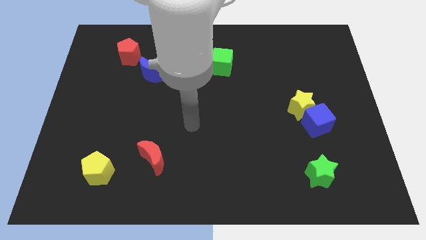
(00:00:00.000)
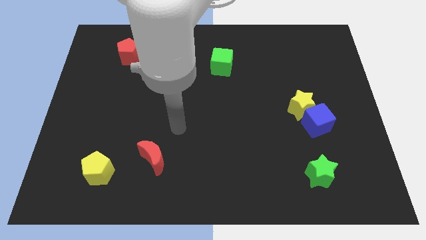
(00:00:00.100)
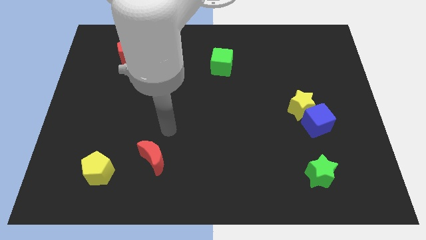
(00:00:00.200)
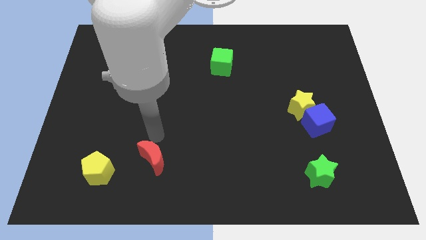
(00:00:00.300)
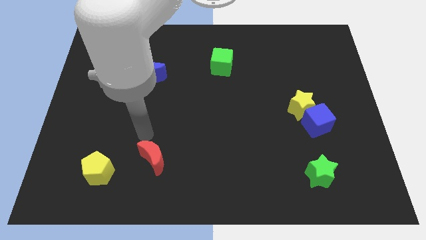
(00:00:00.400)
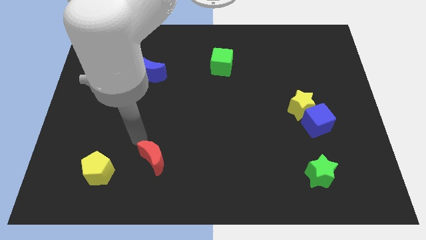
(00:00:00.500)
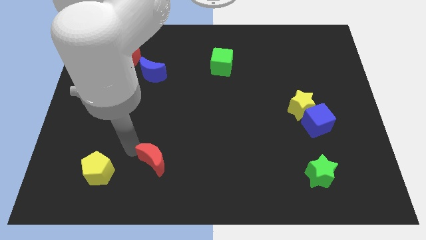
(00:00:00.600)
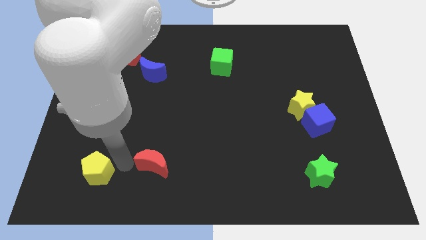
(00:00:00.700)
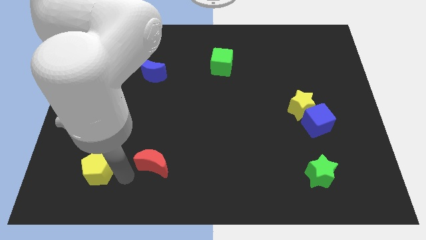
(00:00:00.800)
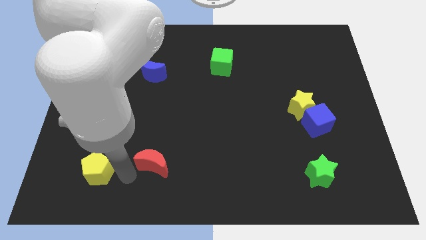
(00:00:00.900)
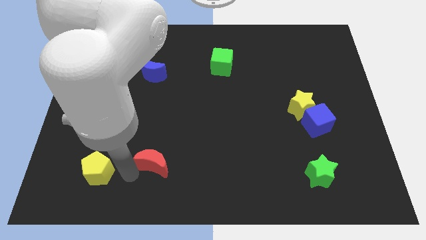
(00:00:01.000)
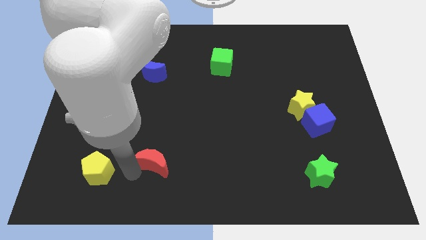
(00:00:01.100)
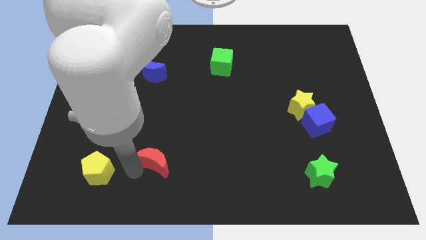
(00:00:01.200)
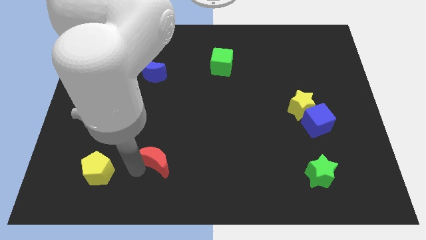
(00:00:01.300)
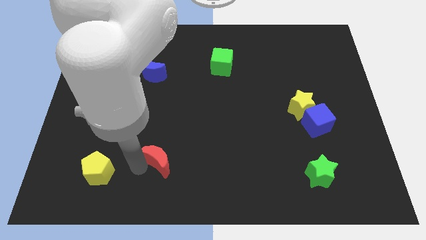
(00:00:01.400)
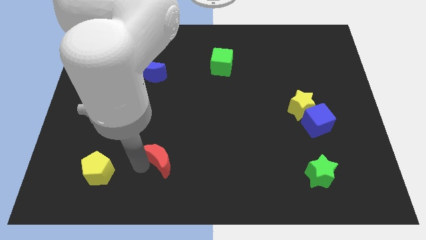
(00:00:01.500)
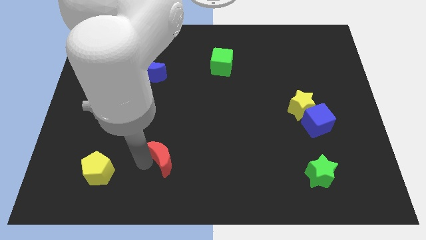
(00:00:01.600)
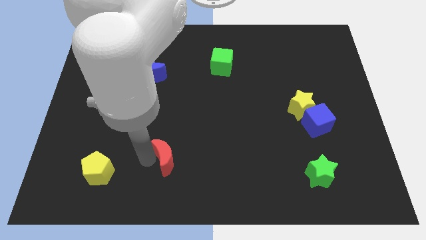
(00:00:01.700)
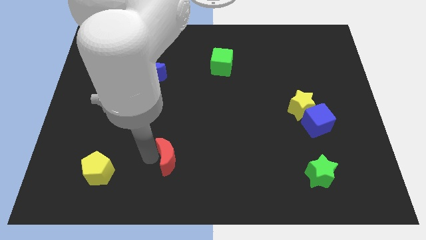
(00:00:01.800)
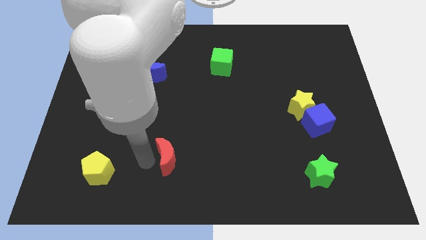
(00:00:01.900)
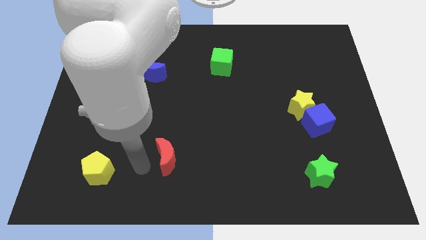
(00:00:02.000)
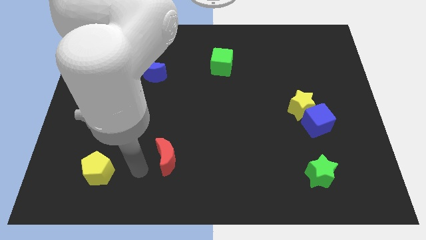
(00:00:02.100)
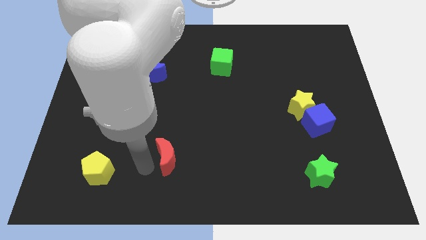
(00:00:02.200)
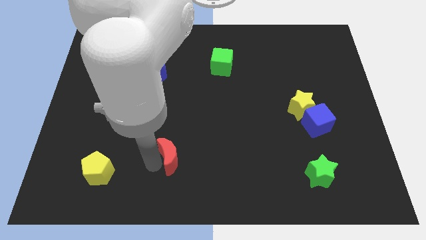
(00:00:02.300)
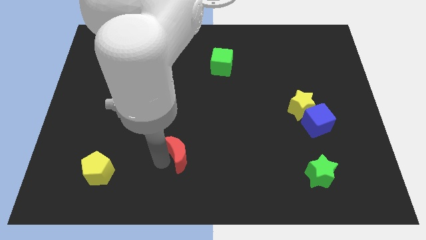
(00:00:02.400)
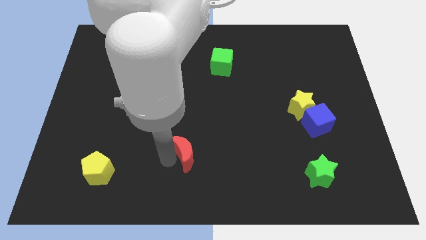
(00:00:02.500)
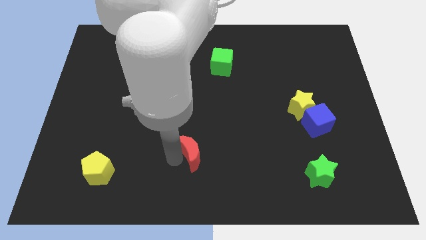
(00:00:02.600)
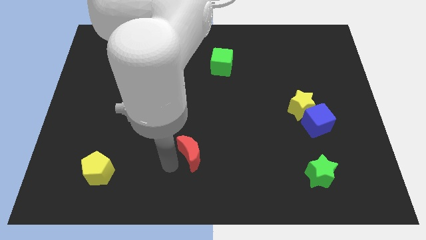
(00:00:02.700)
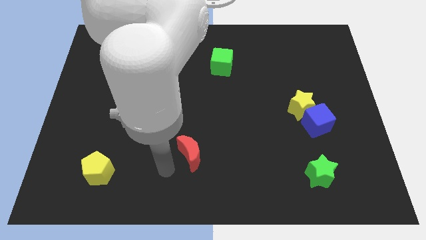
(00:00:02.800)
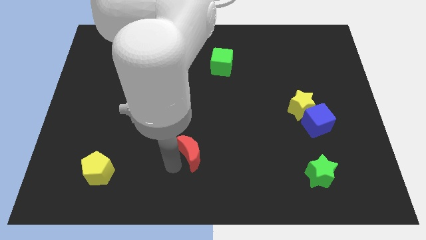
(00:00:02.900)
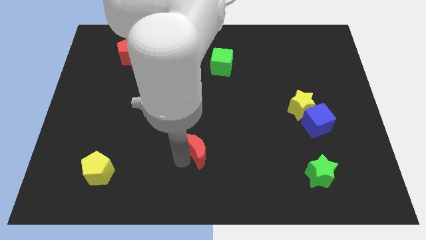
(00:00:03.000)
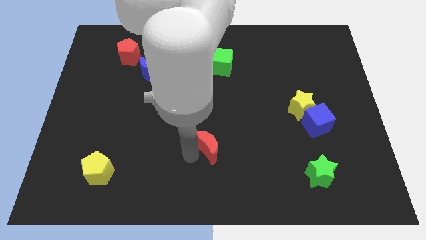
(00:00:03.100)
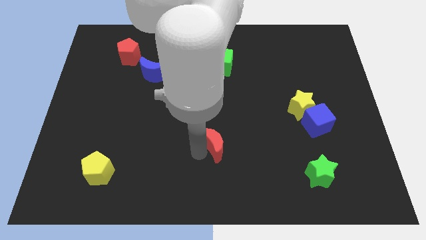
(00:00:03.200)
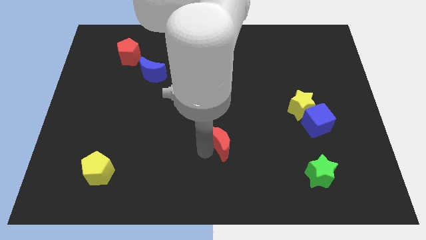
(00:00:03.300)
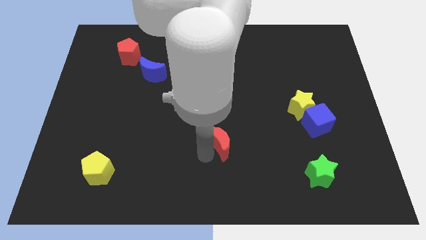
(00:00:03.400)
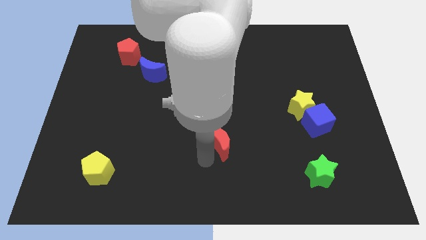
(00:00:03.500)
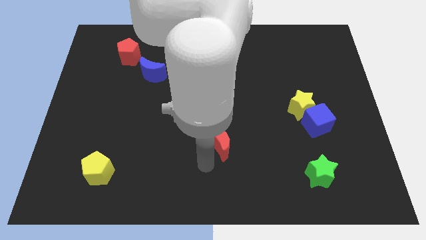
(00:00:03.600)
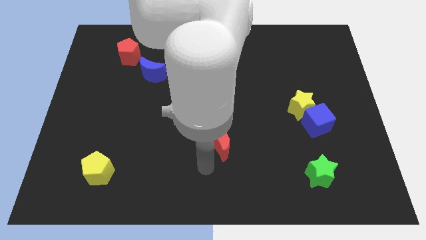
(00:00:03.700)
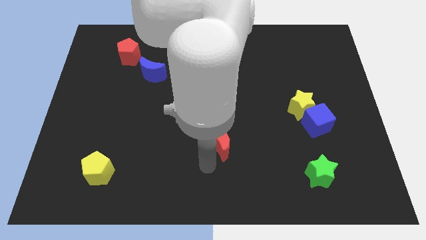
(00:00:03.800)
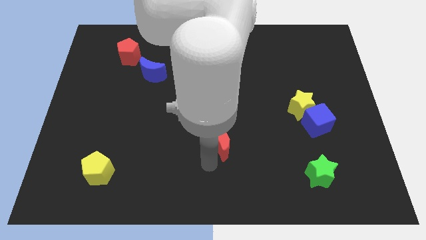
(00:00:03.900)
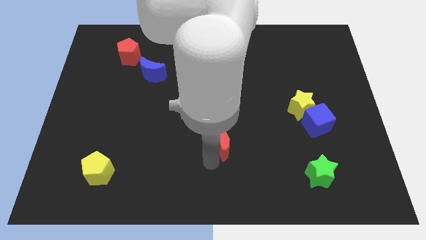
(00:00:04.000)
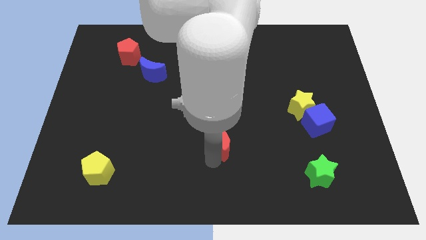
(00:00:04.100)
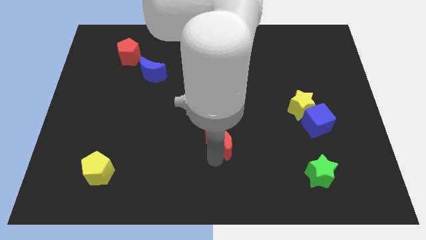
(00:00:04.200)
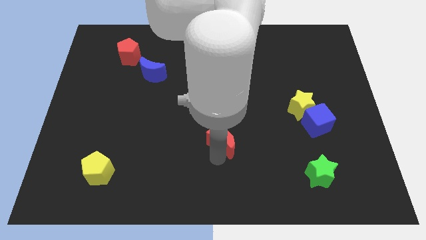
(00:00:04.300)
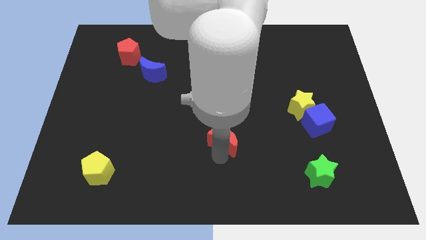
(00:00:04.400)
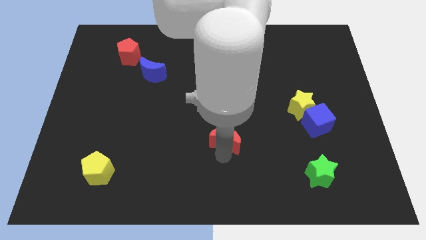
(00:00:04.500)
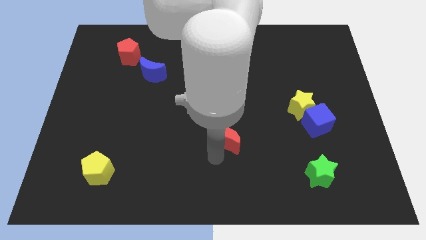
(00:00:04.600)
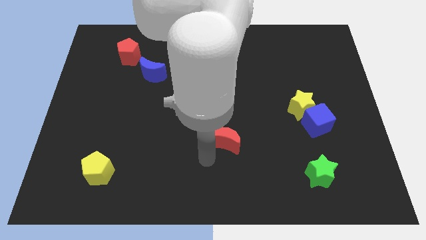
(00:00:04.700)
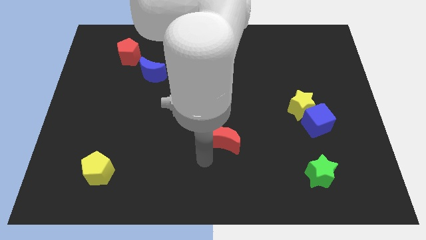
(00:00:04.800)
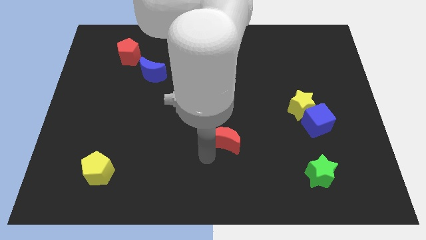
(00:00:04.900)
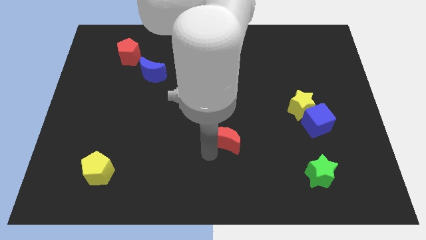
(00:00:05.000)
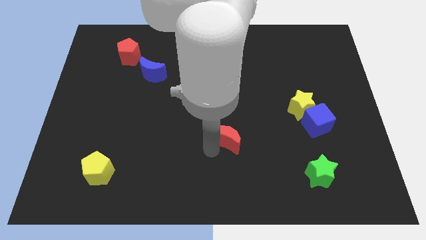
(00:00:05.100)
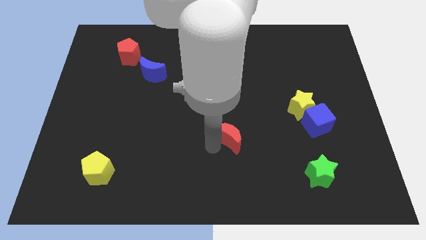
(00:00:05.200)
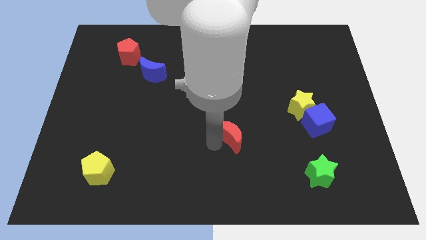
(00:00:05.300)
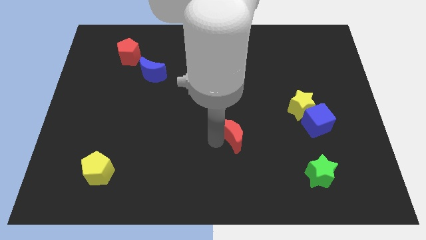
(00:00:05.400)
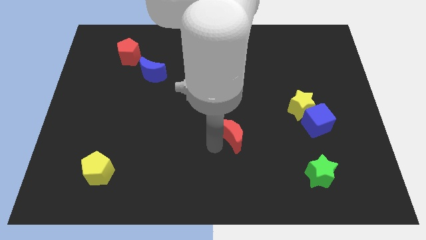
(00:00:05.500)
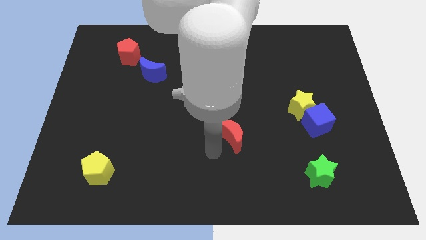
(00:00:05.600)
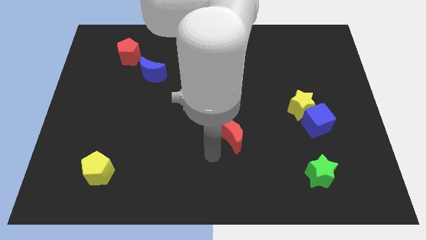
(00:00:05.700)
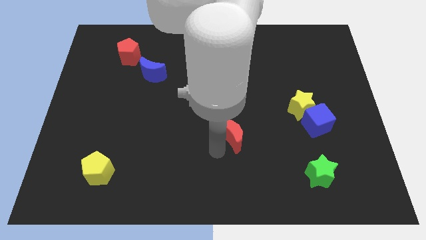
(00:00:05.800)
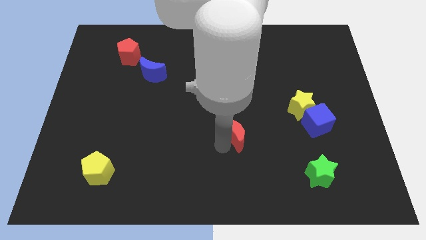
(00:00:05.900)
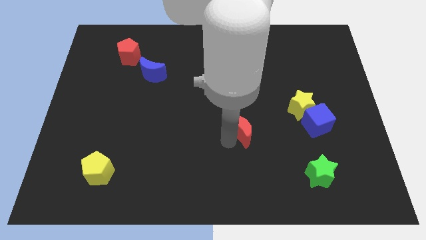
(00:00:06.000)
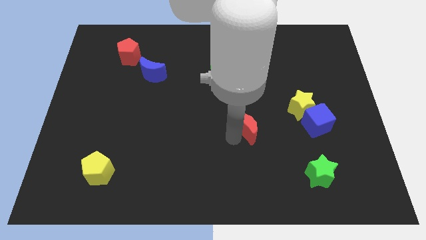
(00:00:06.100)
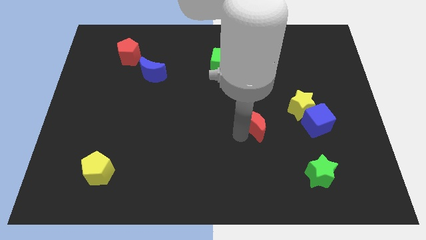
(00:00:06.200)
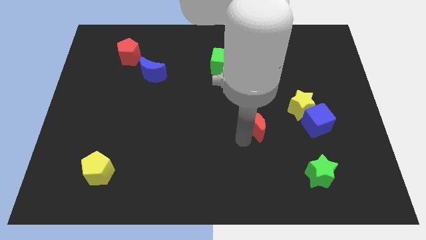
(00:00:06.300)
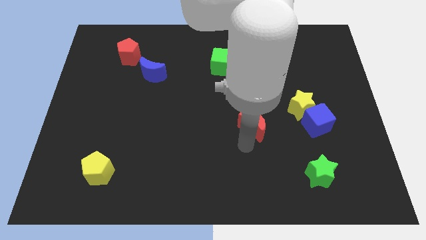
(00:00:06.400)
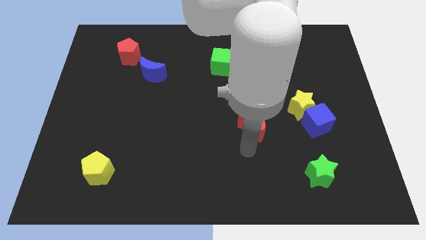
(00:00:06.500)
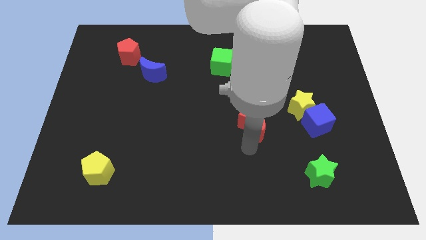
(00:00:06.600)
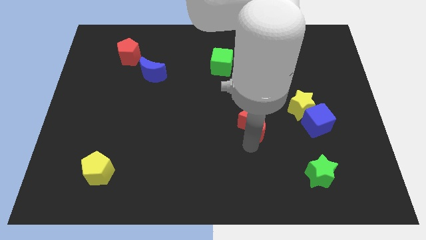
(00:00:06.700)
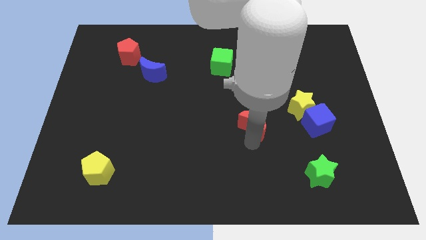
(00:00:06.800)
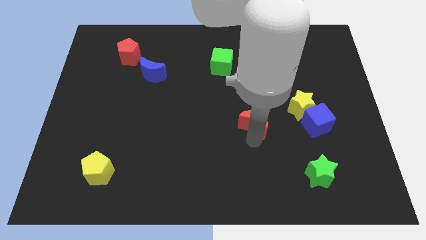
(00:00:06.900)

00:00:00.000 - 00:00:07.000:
slide the red moon just left of the yellow star
